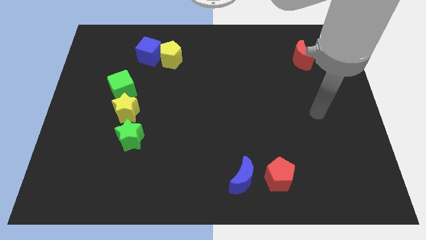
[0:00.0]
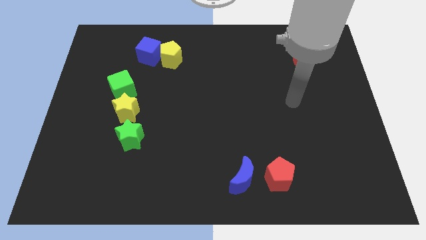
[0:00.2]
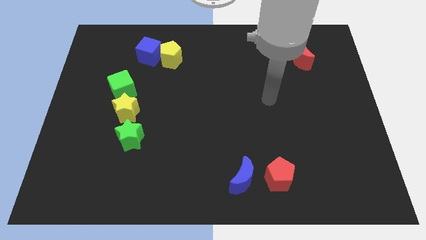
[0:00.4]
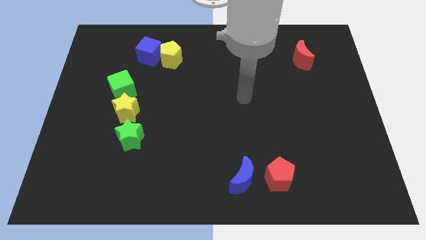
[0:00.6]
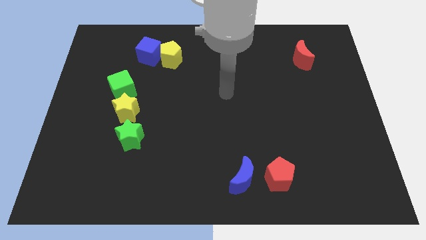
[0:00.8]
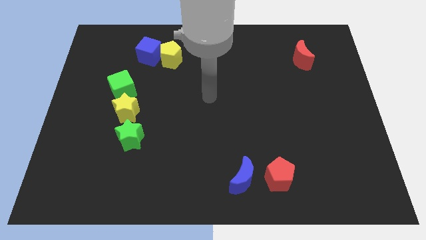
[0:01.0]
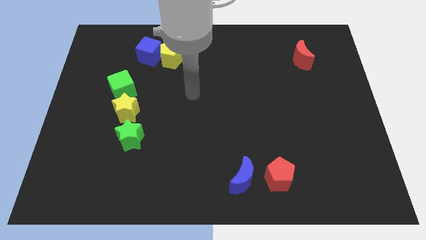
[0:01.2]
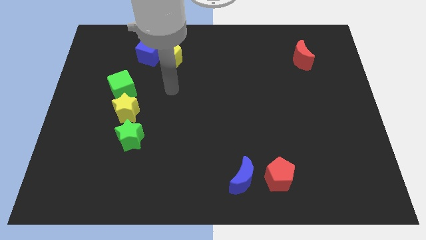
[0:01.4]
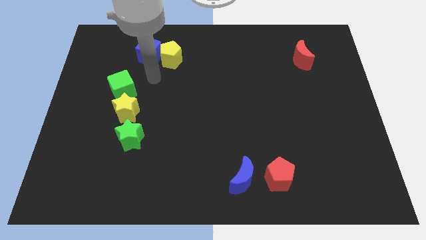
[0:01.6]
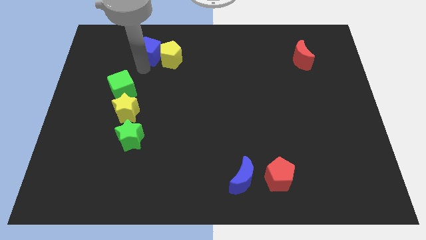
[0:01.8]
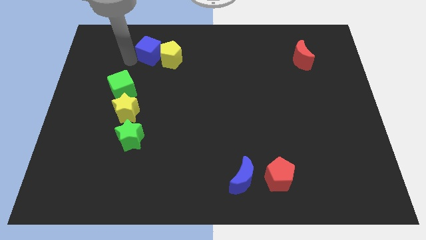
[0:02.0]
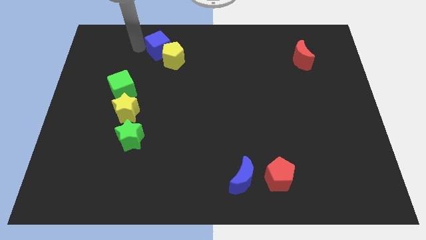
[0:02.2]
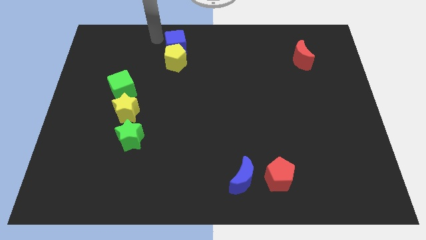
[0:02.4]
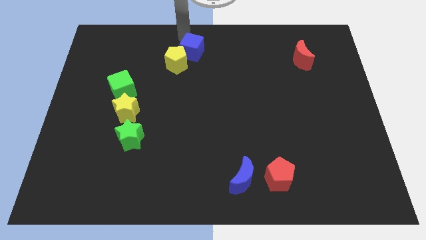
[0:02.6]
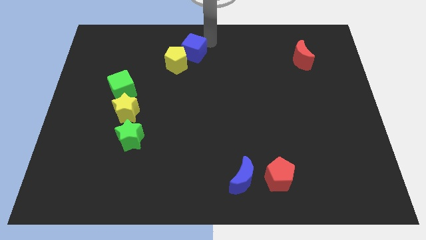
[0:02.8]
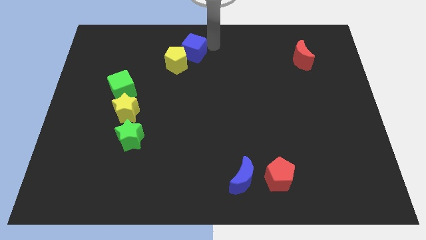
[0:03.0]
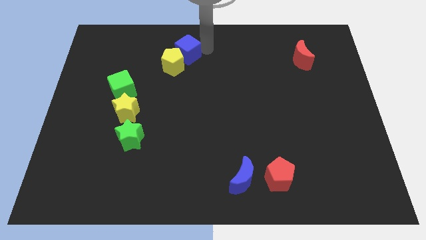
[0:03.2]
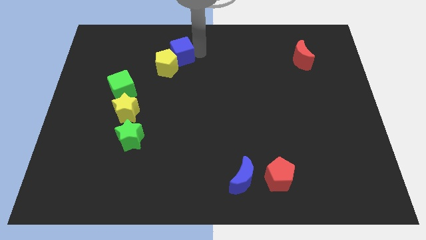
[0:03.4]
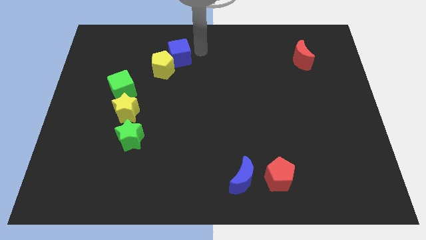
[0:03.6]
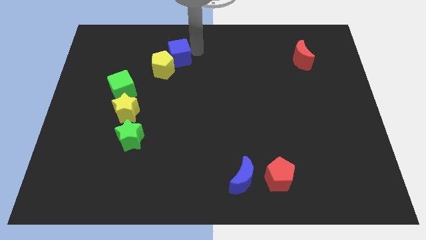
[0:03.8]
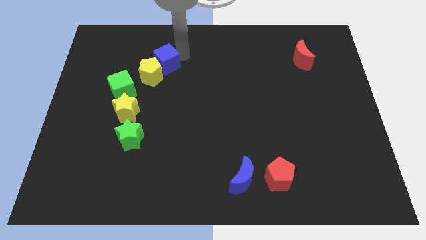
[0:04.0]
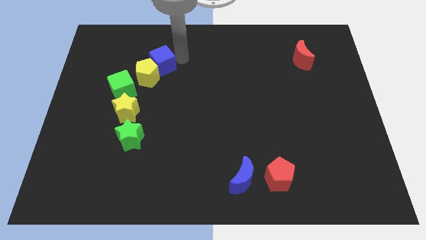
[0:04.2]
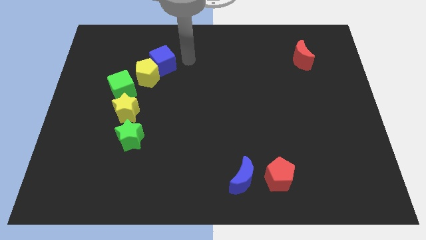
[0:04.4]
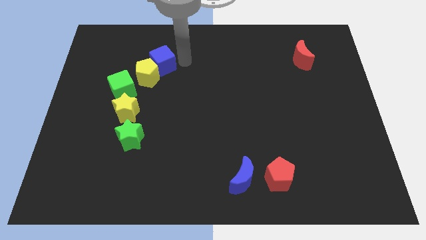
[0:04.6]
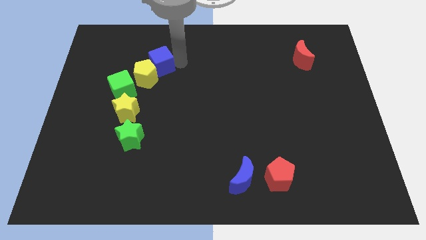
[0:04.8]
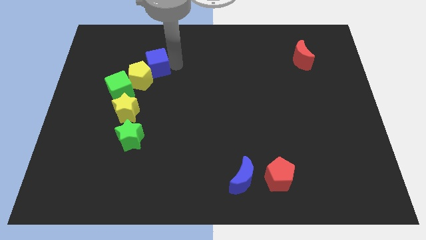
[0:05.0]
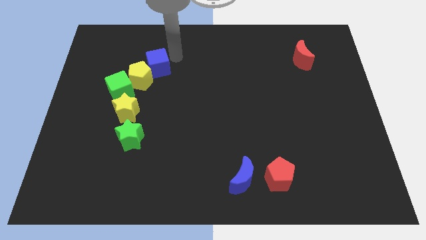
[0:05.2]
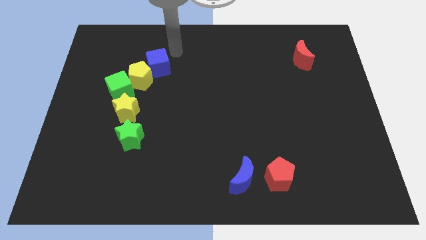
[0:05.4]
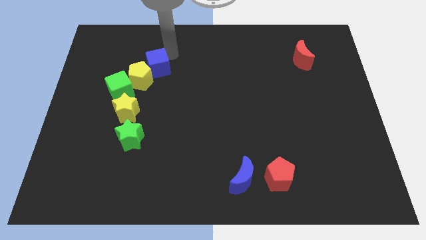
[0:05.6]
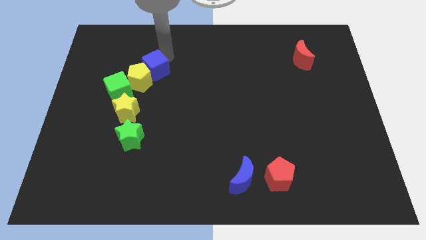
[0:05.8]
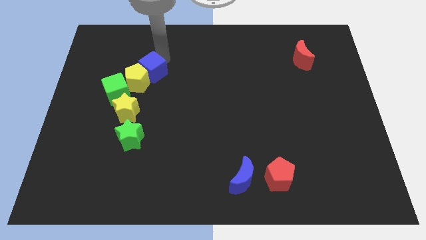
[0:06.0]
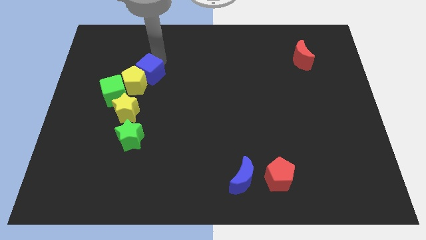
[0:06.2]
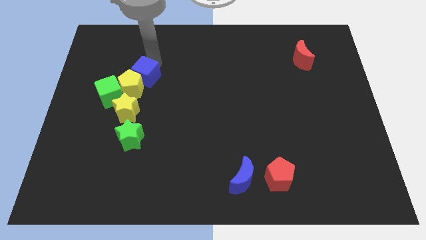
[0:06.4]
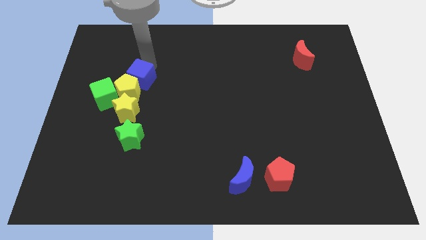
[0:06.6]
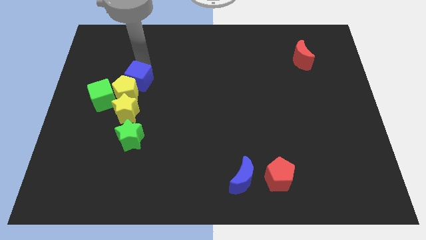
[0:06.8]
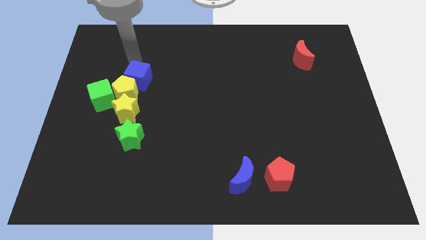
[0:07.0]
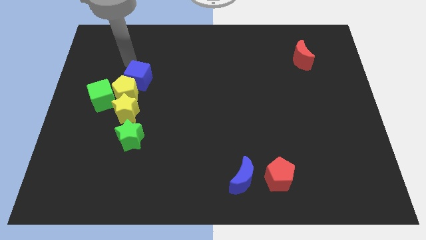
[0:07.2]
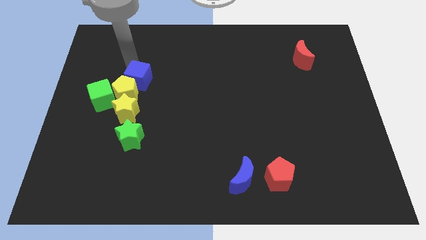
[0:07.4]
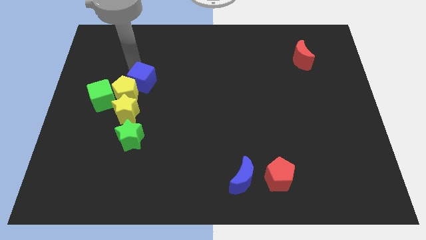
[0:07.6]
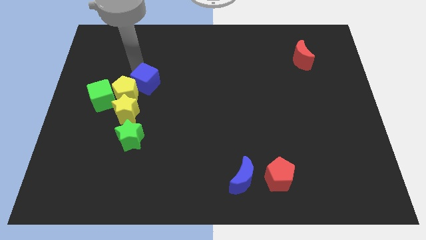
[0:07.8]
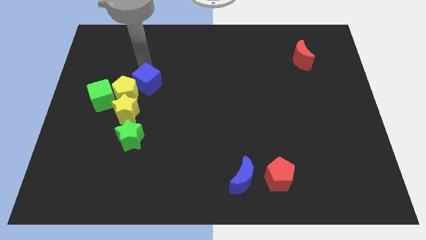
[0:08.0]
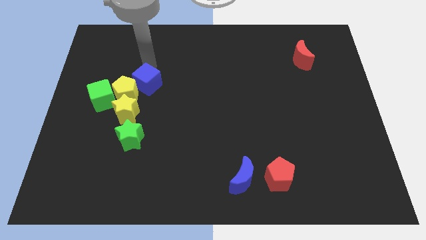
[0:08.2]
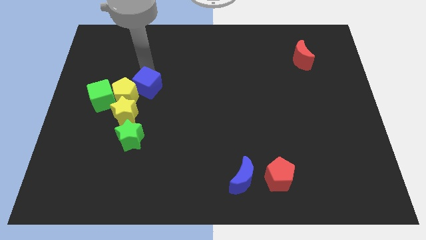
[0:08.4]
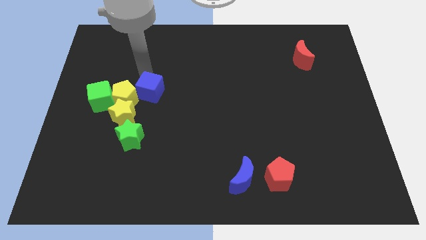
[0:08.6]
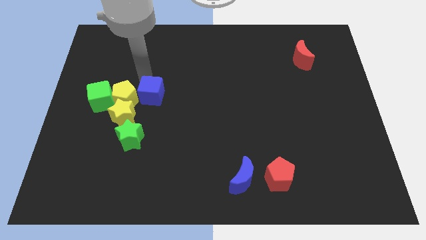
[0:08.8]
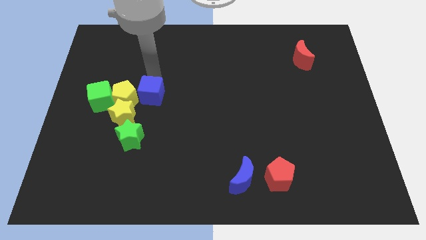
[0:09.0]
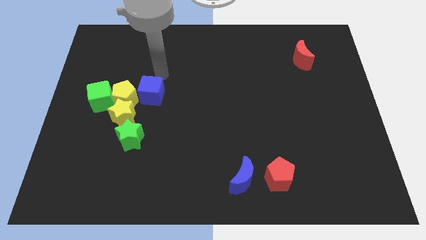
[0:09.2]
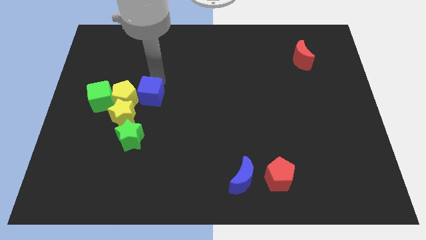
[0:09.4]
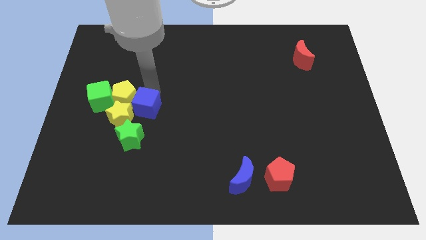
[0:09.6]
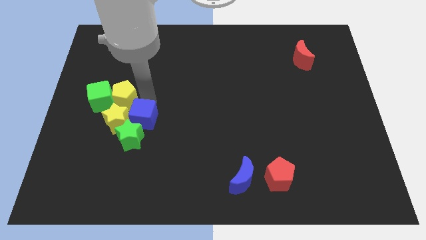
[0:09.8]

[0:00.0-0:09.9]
put the blue cube close to the green star

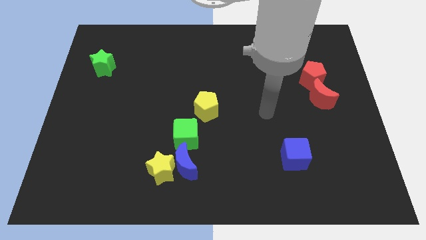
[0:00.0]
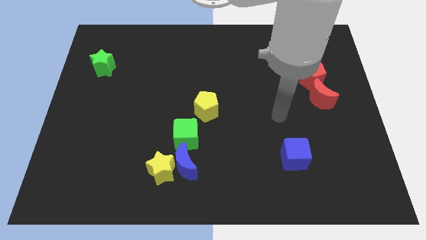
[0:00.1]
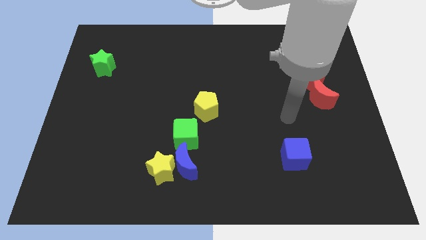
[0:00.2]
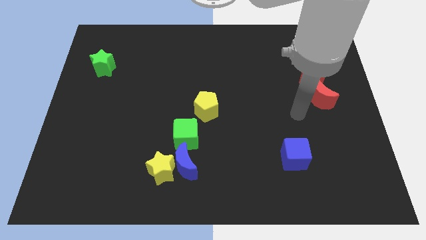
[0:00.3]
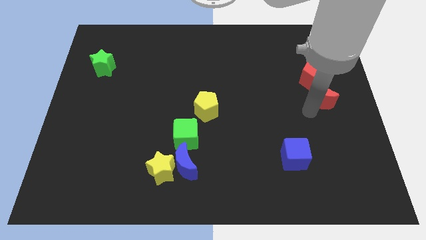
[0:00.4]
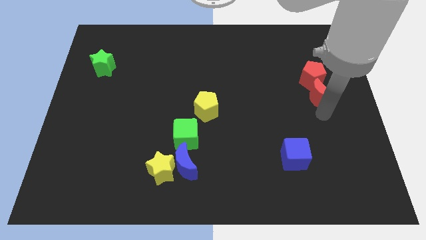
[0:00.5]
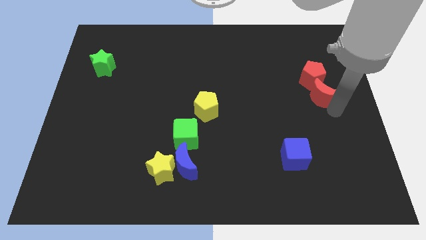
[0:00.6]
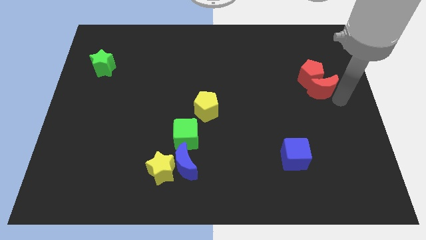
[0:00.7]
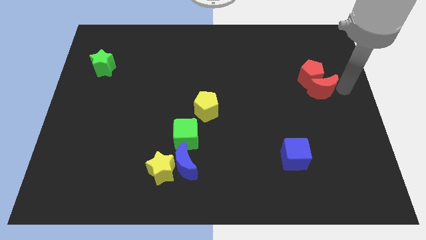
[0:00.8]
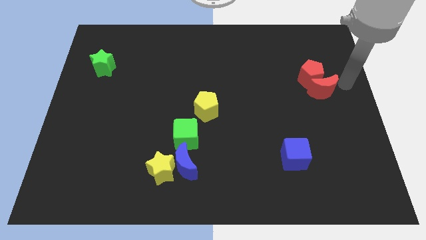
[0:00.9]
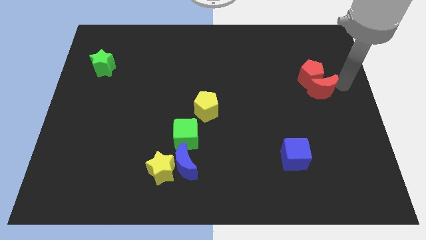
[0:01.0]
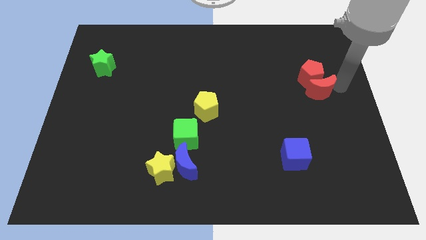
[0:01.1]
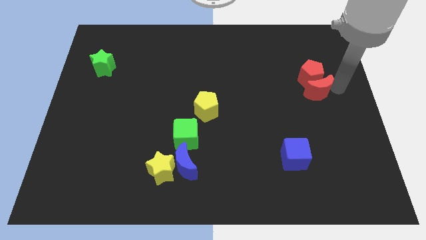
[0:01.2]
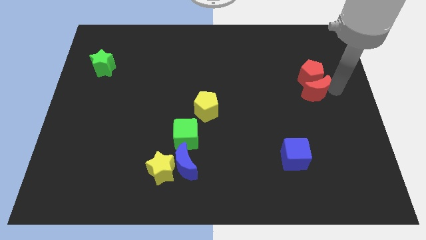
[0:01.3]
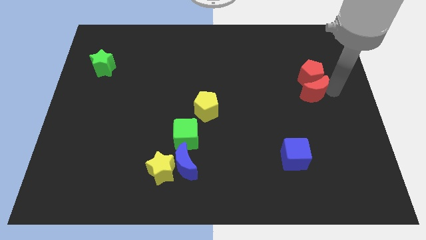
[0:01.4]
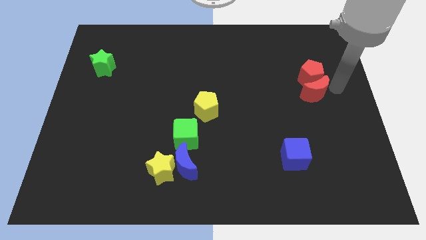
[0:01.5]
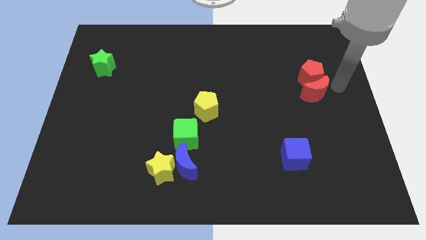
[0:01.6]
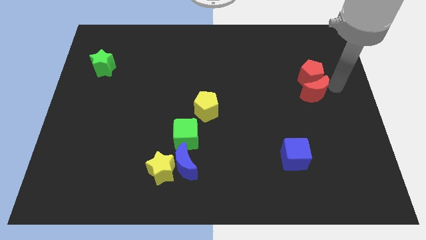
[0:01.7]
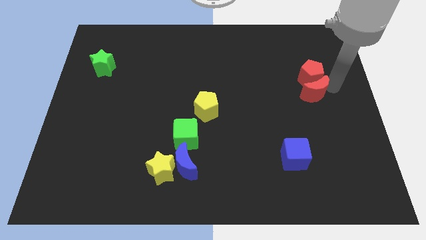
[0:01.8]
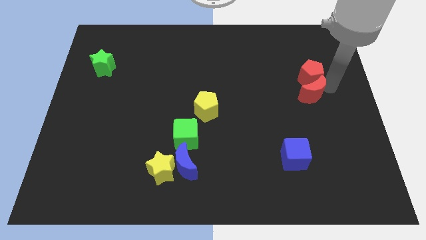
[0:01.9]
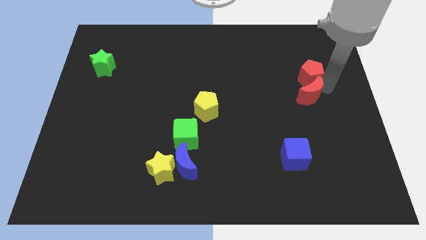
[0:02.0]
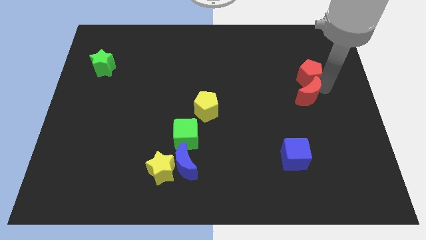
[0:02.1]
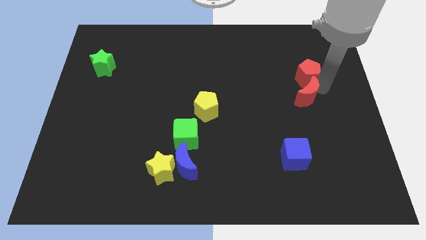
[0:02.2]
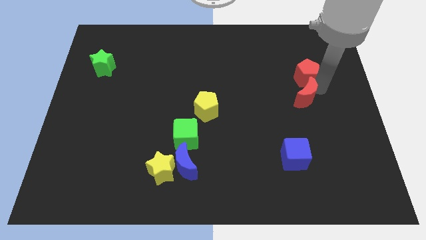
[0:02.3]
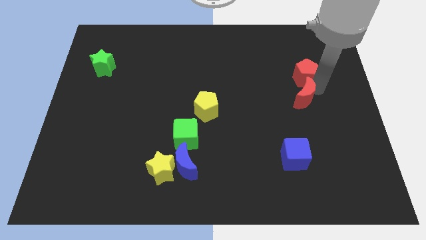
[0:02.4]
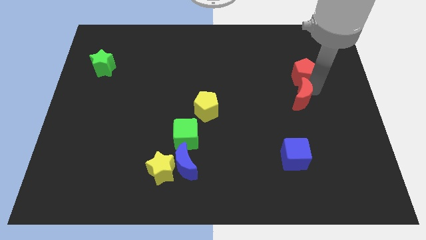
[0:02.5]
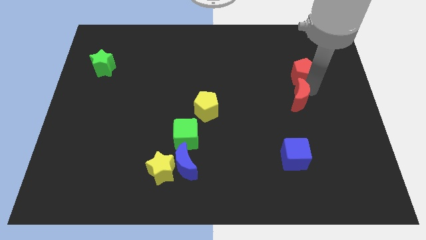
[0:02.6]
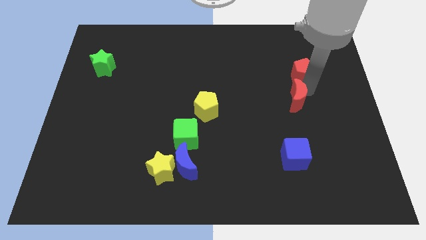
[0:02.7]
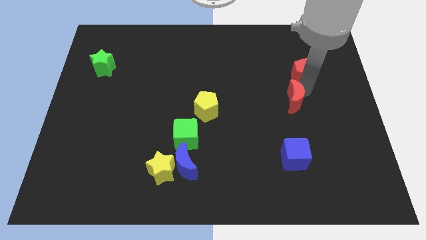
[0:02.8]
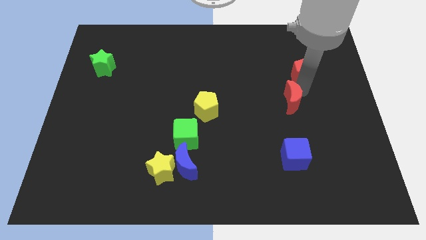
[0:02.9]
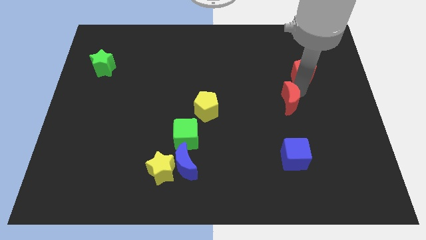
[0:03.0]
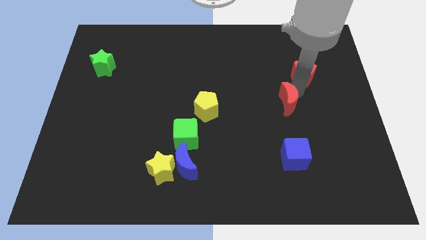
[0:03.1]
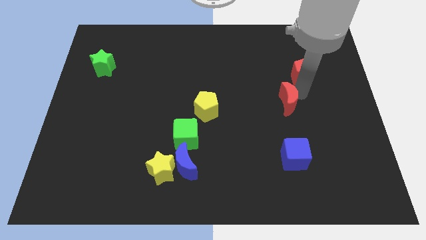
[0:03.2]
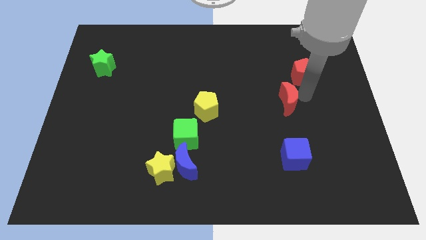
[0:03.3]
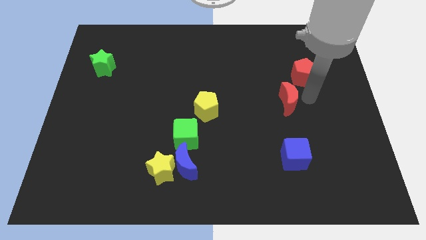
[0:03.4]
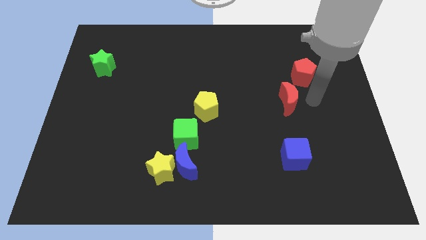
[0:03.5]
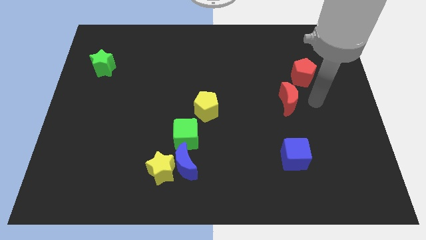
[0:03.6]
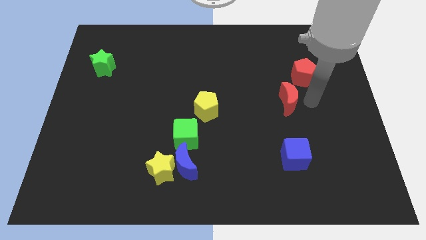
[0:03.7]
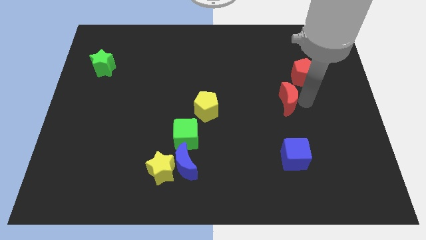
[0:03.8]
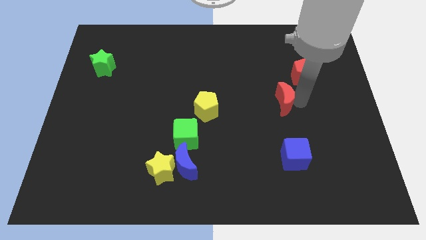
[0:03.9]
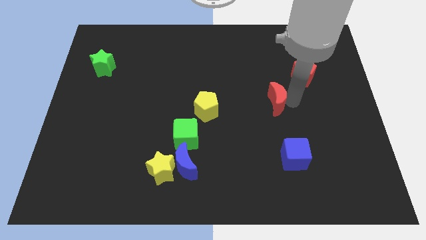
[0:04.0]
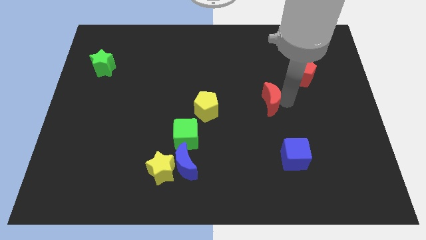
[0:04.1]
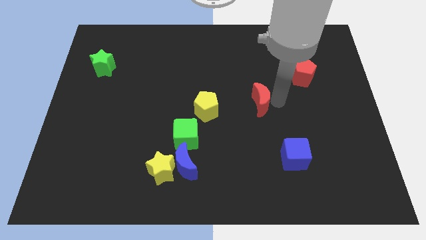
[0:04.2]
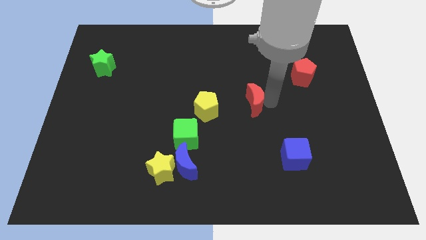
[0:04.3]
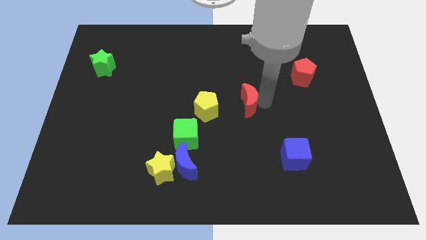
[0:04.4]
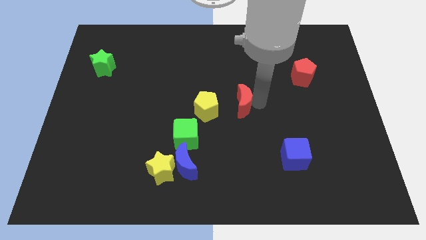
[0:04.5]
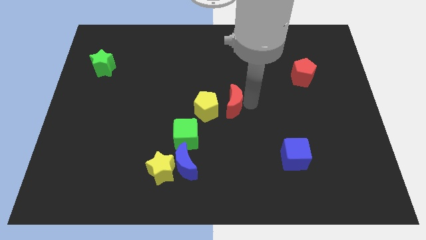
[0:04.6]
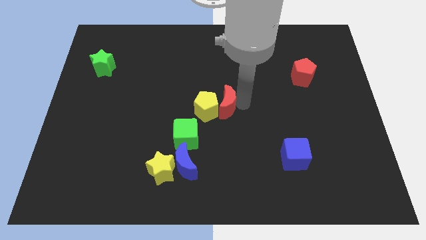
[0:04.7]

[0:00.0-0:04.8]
move the red moon towards the yellow pentagon
